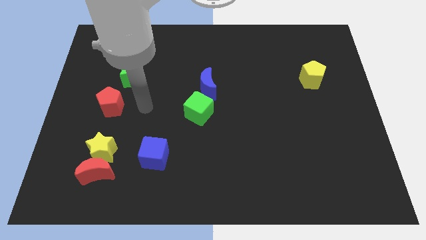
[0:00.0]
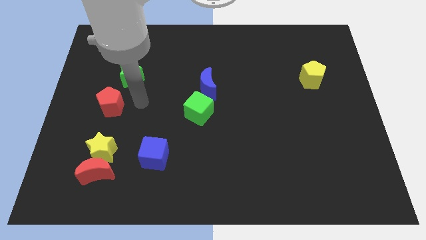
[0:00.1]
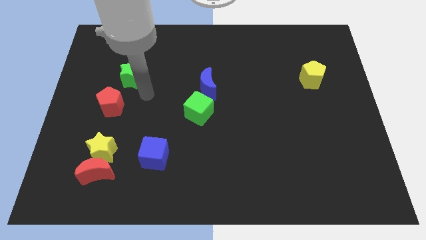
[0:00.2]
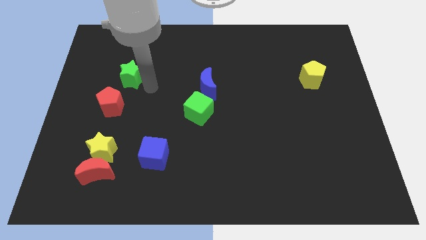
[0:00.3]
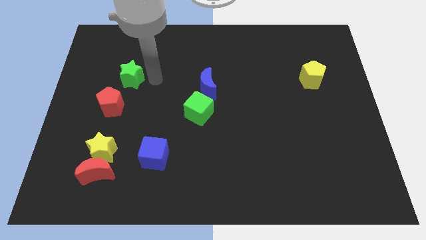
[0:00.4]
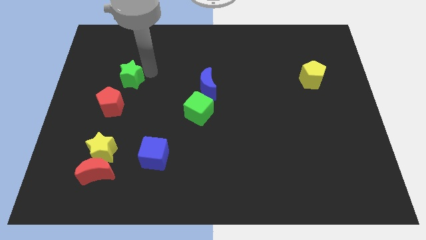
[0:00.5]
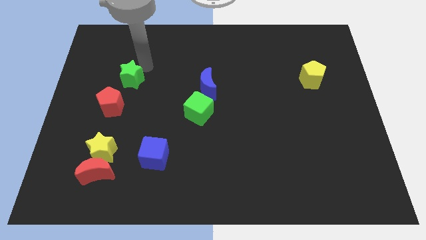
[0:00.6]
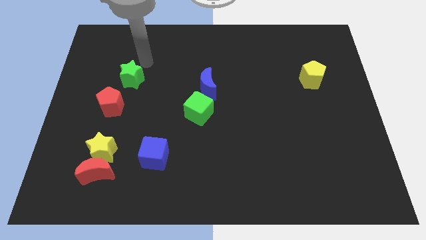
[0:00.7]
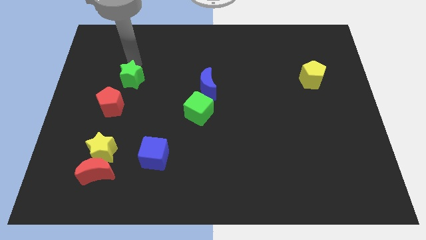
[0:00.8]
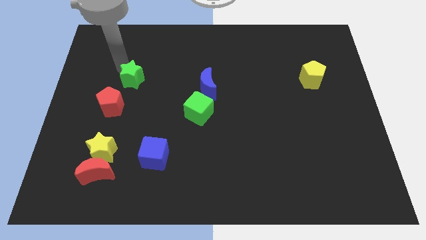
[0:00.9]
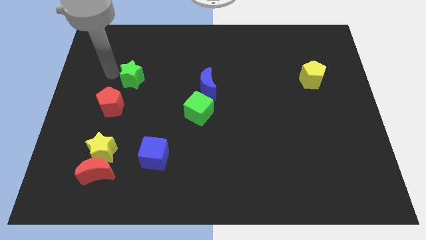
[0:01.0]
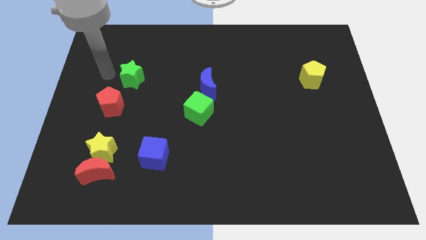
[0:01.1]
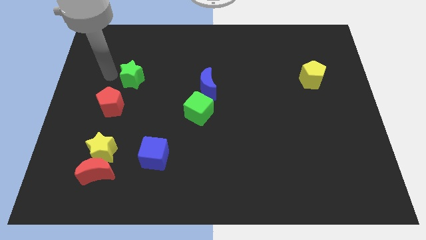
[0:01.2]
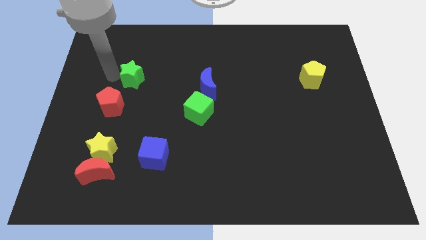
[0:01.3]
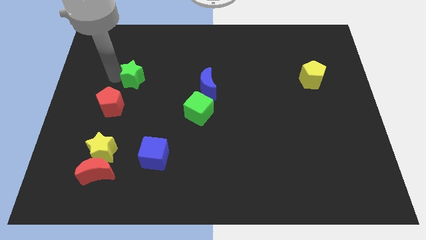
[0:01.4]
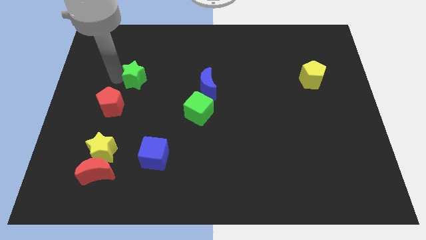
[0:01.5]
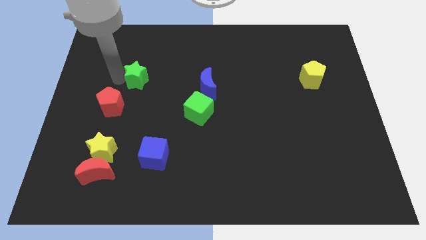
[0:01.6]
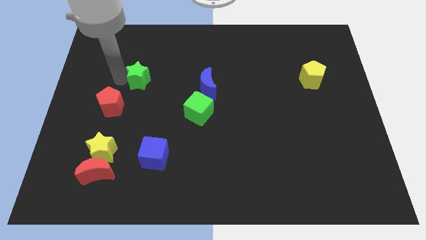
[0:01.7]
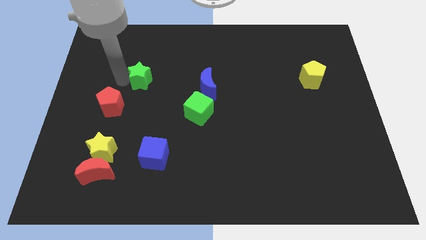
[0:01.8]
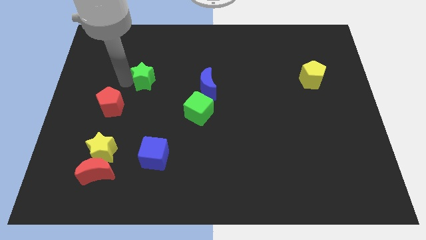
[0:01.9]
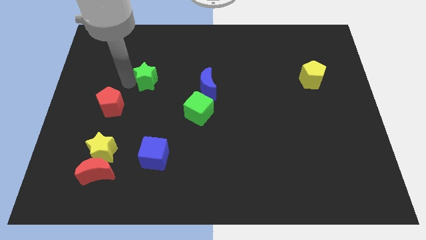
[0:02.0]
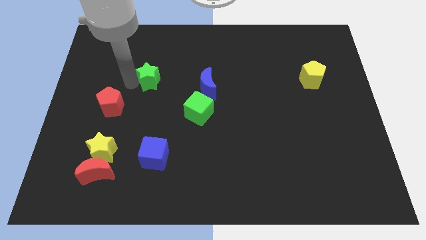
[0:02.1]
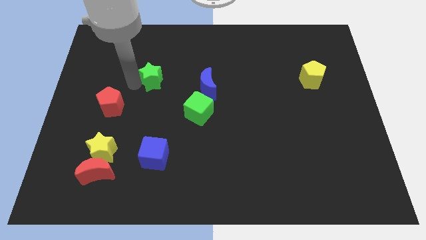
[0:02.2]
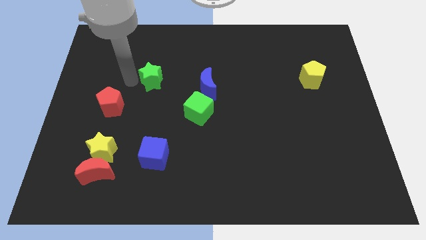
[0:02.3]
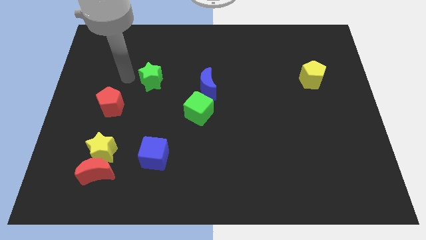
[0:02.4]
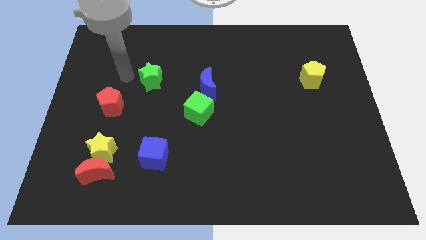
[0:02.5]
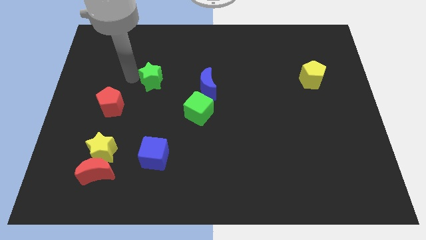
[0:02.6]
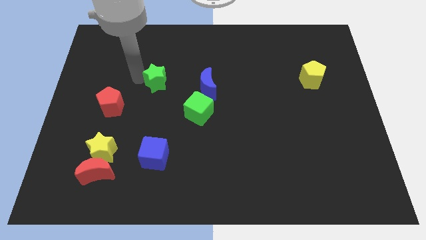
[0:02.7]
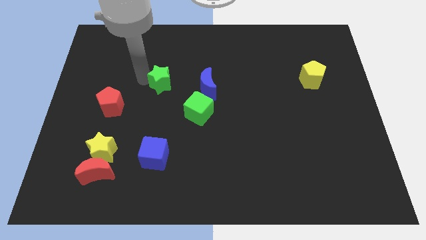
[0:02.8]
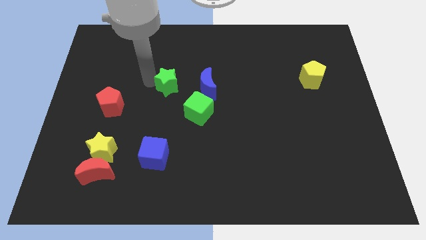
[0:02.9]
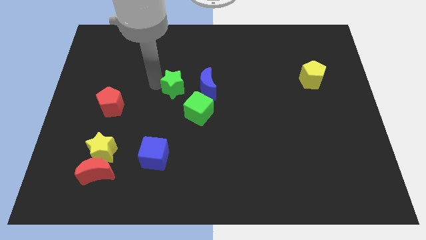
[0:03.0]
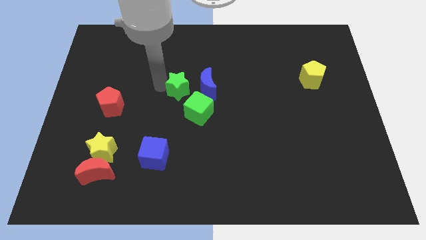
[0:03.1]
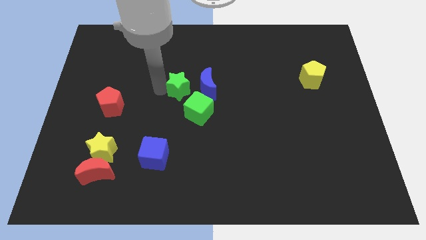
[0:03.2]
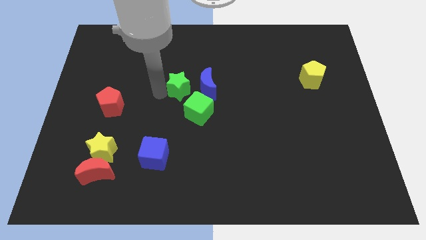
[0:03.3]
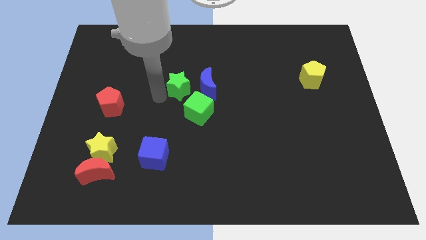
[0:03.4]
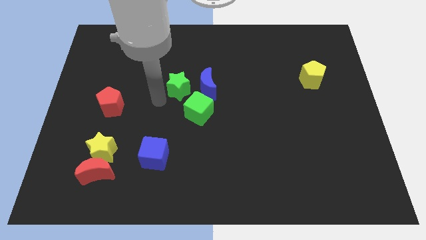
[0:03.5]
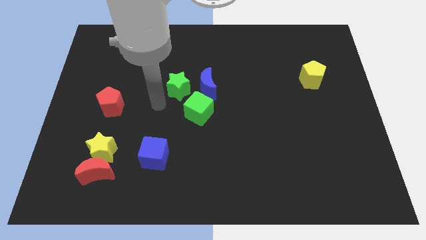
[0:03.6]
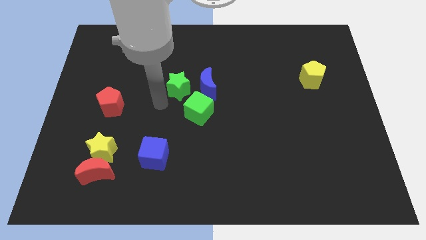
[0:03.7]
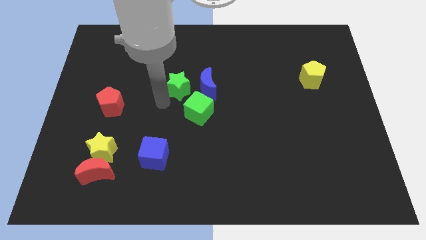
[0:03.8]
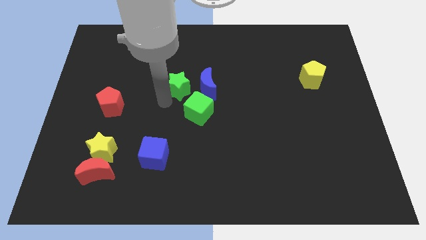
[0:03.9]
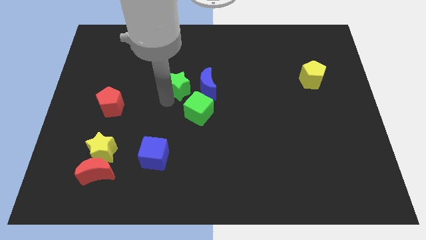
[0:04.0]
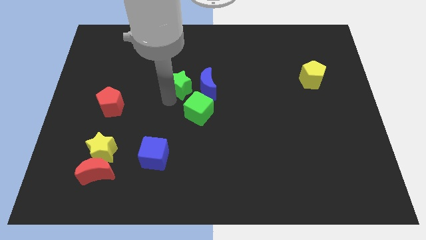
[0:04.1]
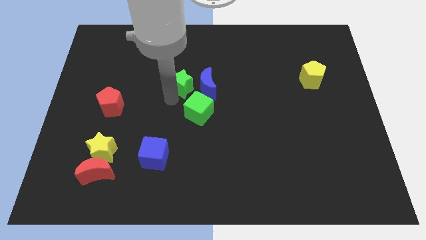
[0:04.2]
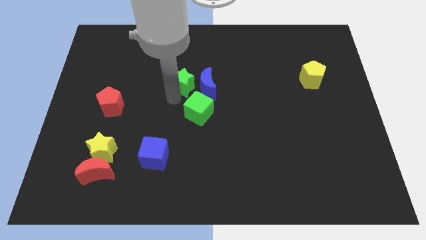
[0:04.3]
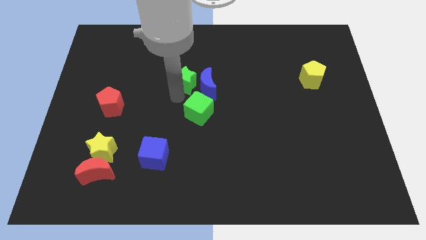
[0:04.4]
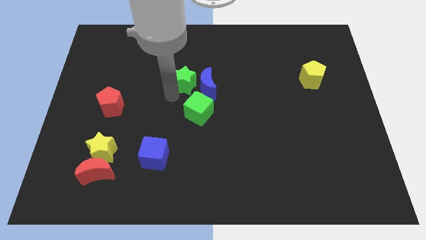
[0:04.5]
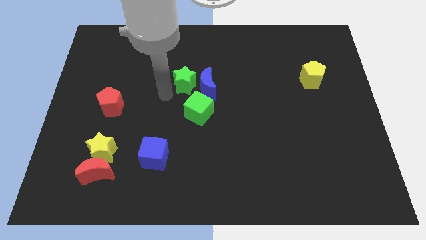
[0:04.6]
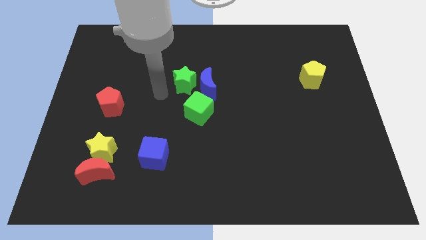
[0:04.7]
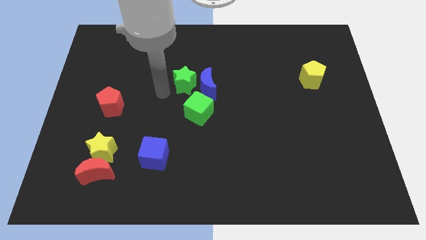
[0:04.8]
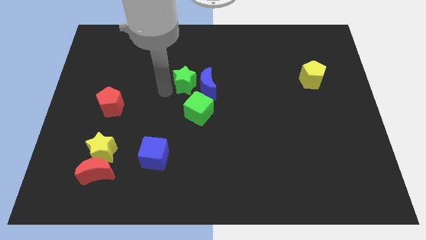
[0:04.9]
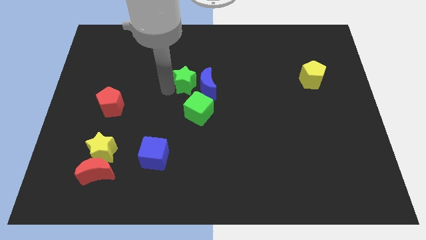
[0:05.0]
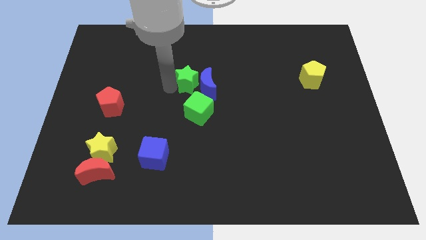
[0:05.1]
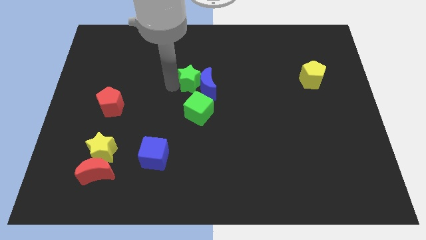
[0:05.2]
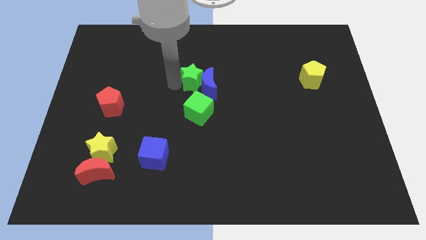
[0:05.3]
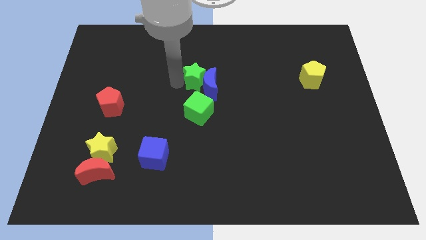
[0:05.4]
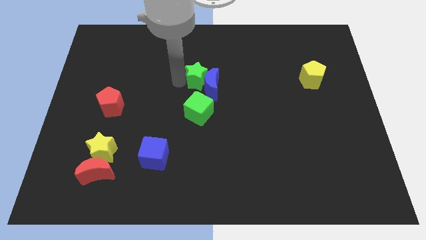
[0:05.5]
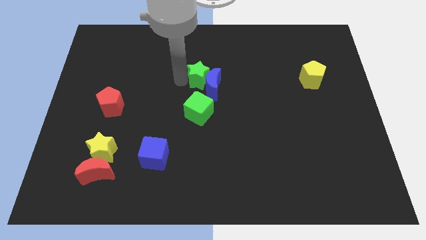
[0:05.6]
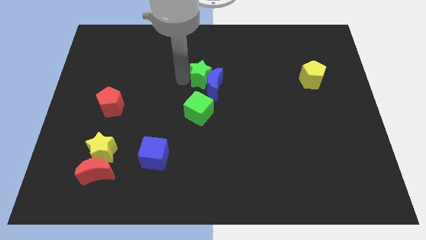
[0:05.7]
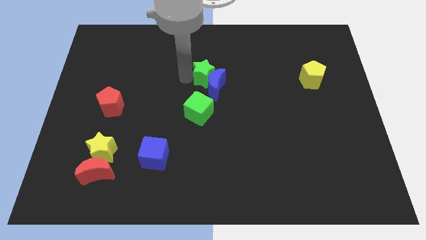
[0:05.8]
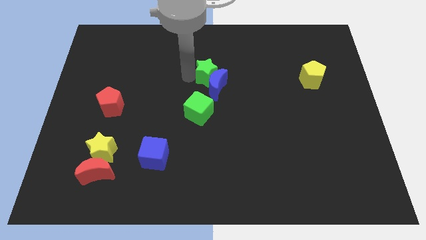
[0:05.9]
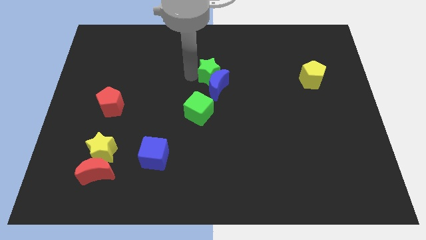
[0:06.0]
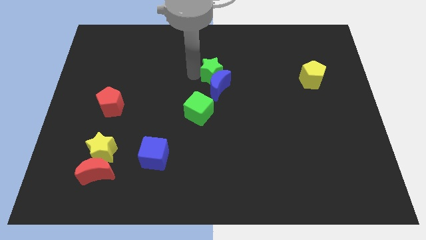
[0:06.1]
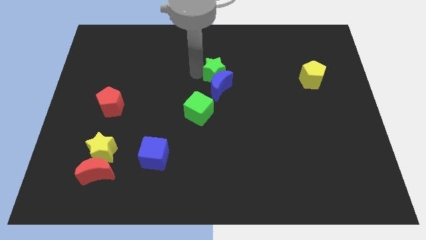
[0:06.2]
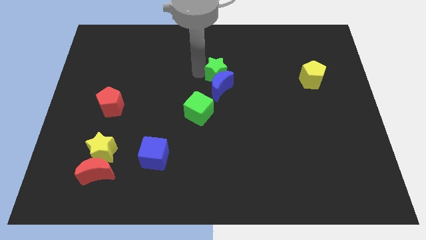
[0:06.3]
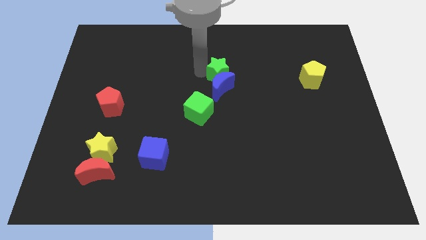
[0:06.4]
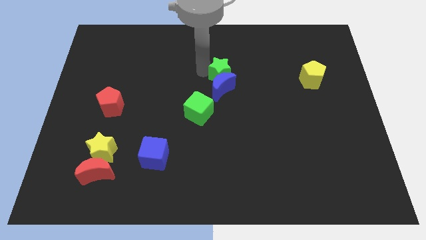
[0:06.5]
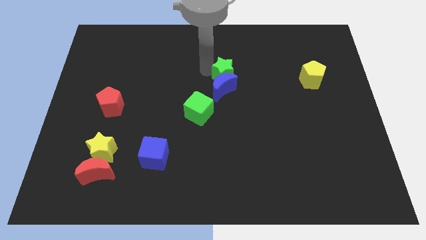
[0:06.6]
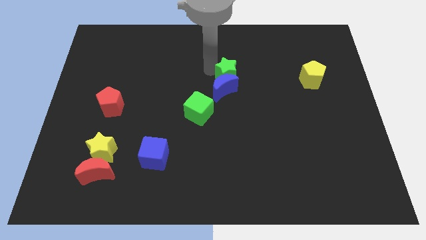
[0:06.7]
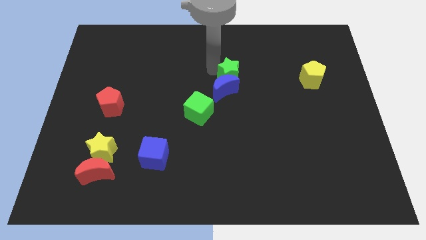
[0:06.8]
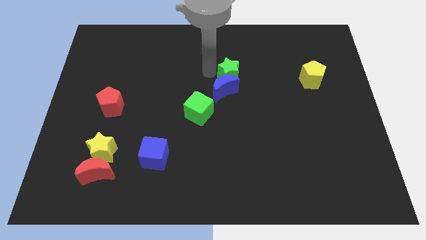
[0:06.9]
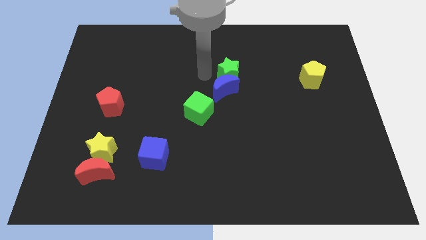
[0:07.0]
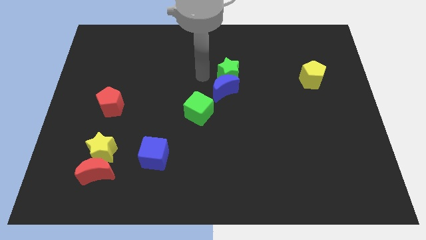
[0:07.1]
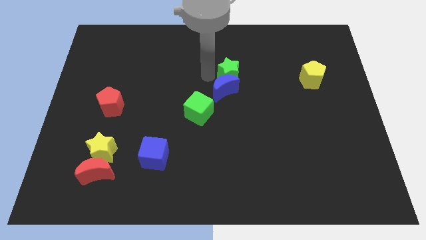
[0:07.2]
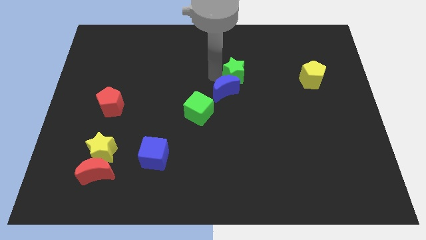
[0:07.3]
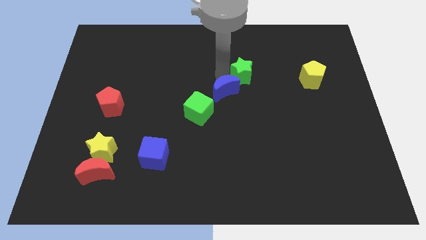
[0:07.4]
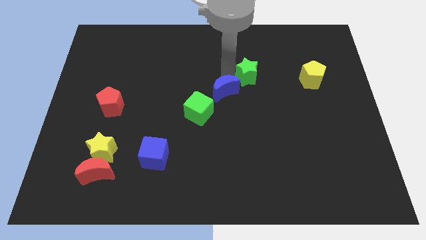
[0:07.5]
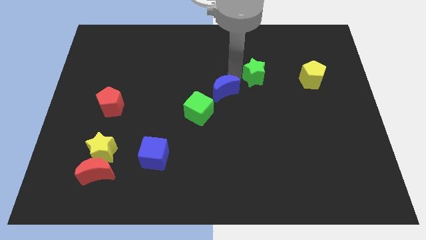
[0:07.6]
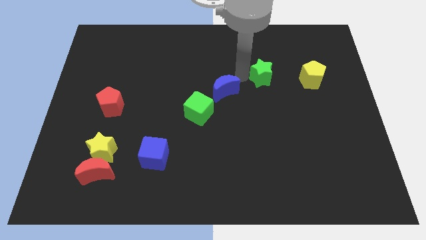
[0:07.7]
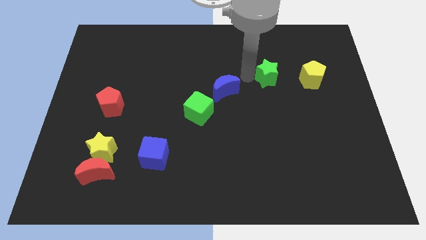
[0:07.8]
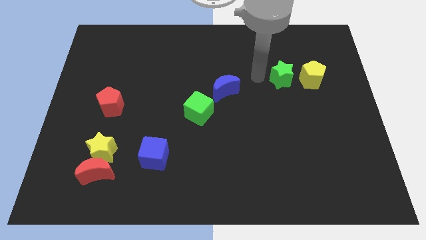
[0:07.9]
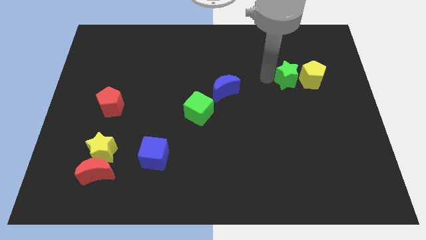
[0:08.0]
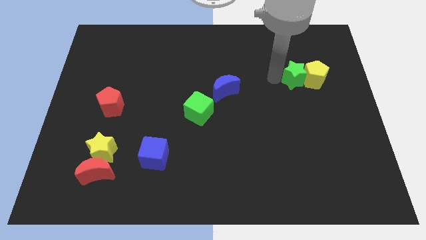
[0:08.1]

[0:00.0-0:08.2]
push the green star next to the yellow pentagon
